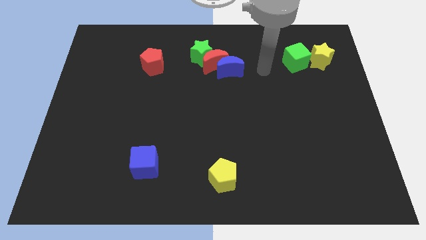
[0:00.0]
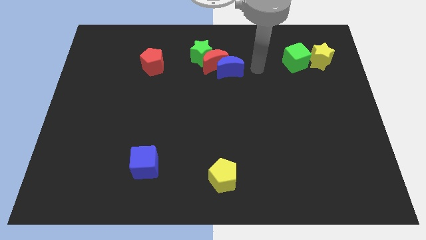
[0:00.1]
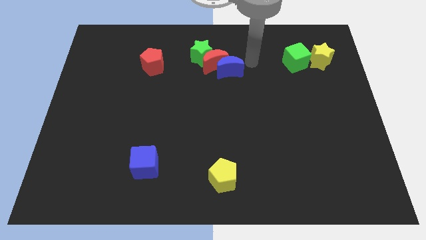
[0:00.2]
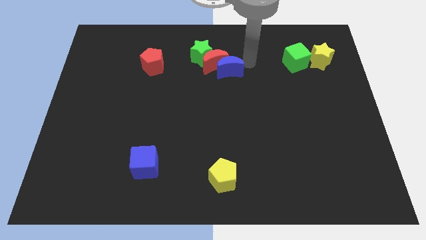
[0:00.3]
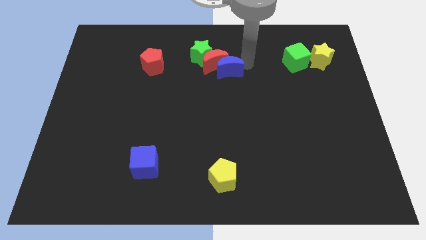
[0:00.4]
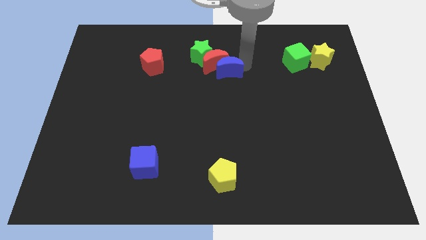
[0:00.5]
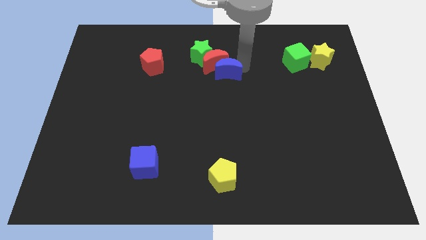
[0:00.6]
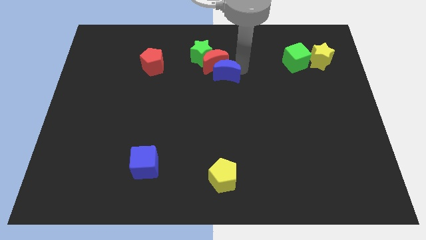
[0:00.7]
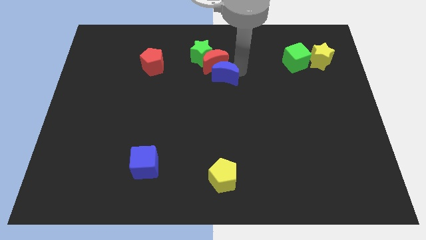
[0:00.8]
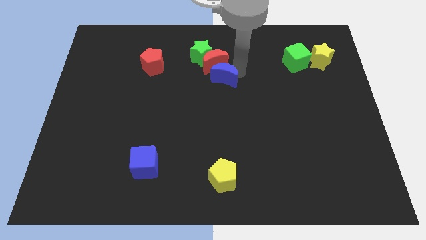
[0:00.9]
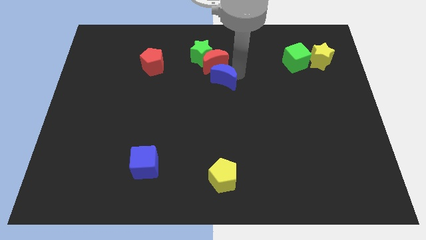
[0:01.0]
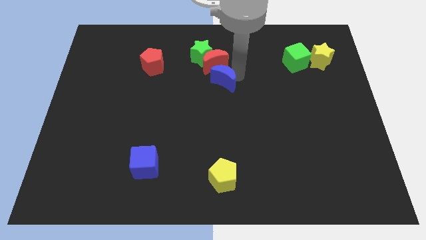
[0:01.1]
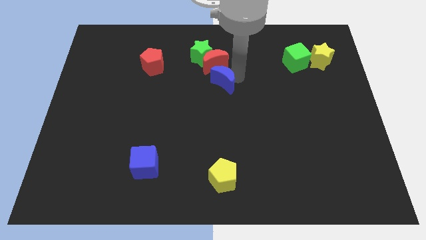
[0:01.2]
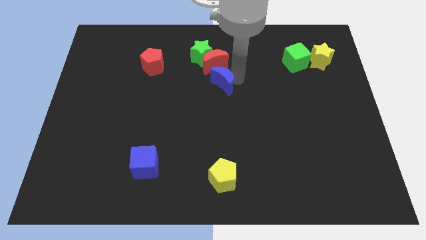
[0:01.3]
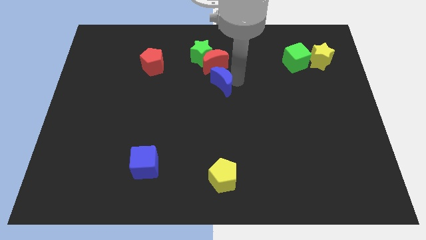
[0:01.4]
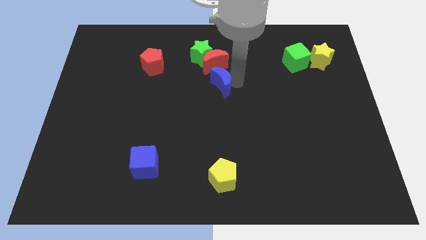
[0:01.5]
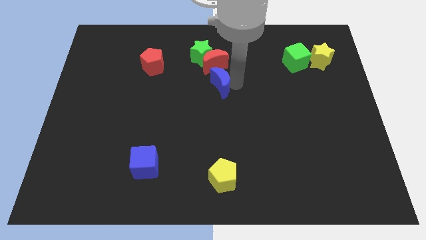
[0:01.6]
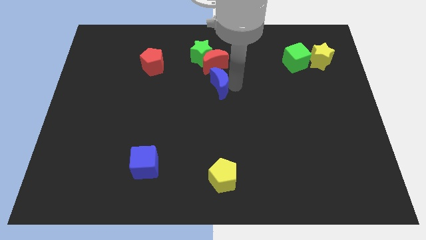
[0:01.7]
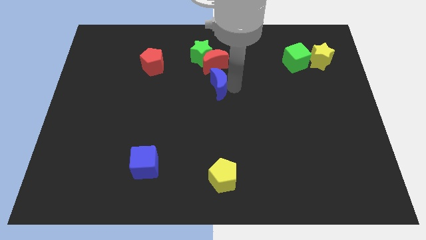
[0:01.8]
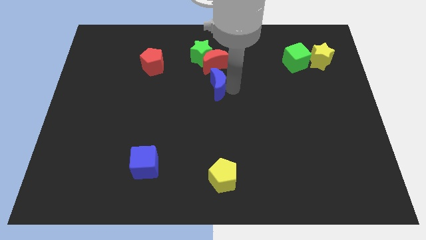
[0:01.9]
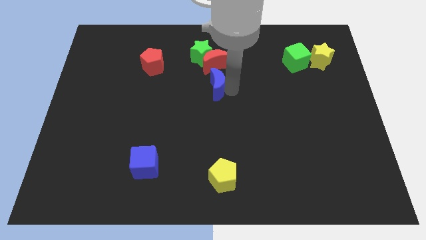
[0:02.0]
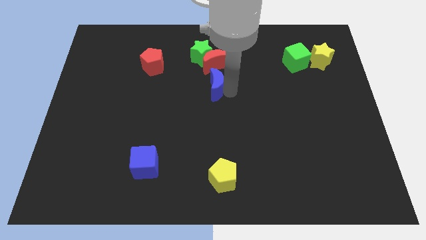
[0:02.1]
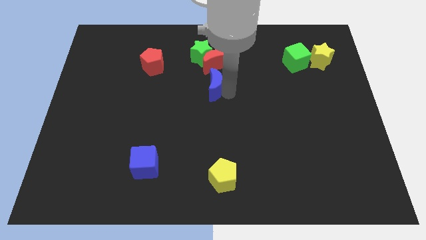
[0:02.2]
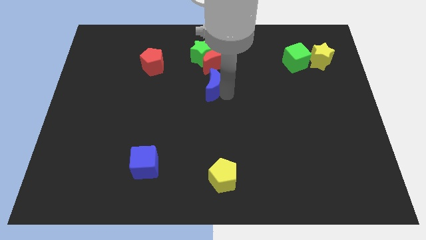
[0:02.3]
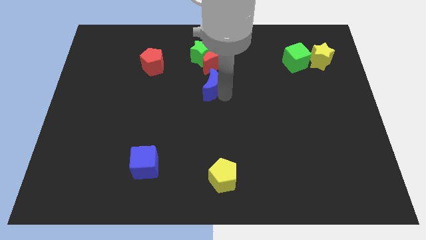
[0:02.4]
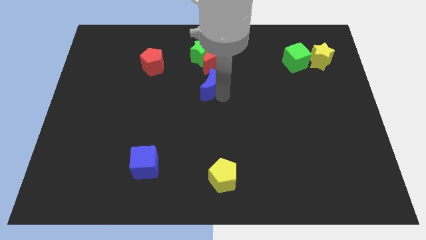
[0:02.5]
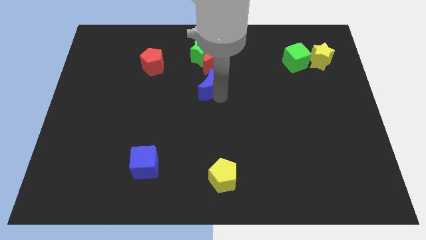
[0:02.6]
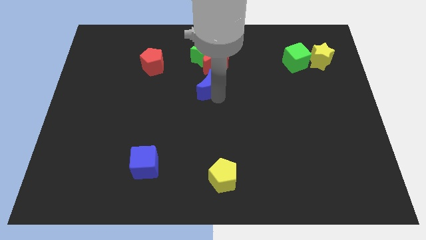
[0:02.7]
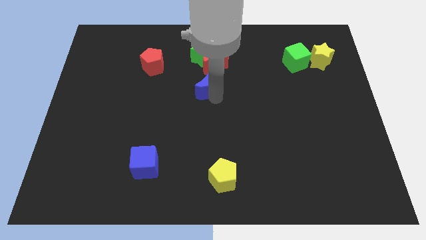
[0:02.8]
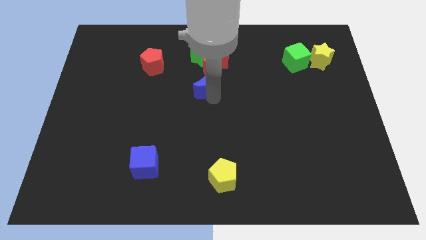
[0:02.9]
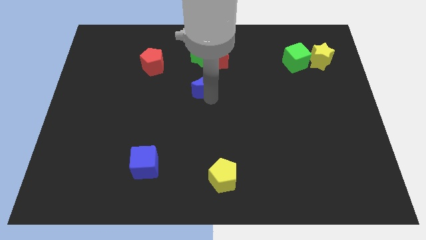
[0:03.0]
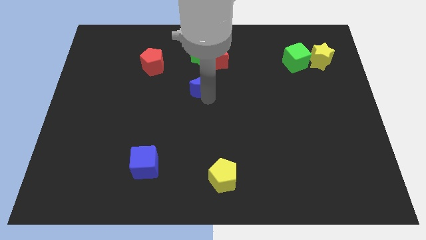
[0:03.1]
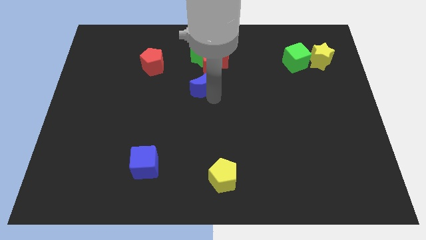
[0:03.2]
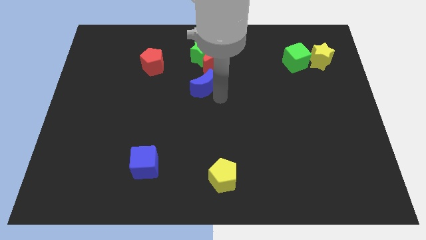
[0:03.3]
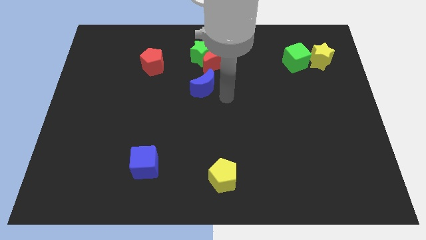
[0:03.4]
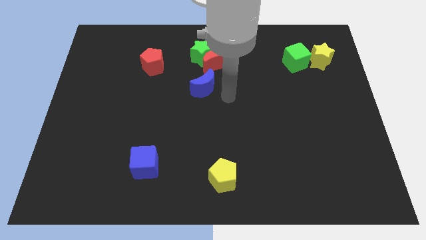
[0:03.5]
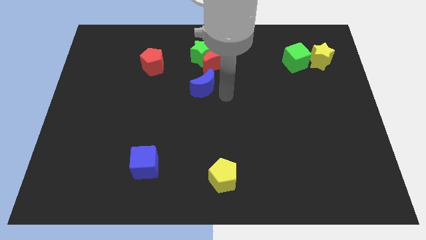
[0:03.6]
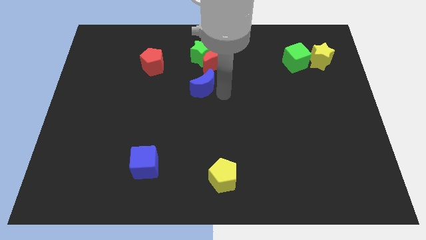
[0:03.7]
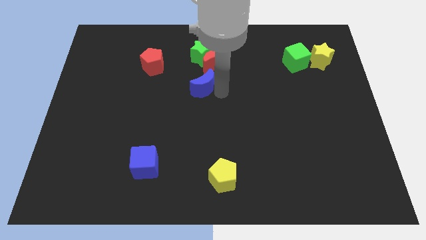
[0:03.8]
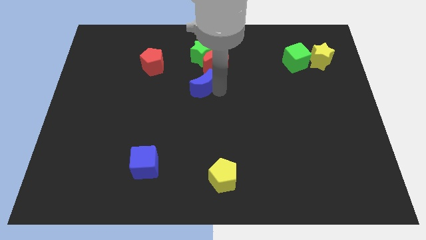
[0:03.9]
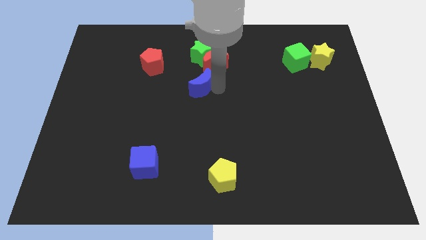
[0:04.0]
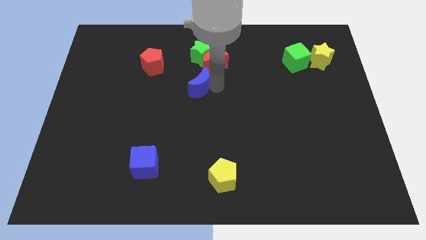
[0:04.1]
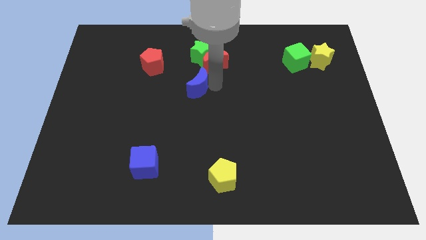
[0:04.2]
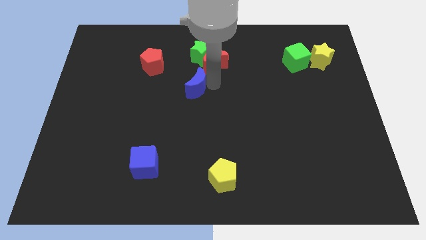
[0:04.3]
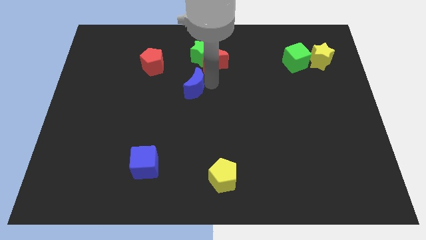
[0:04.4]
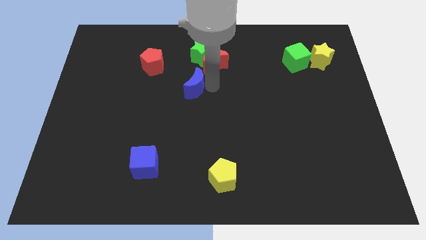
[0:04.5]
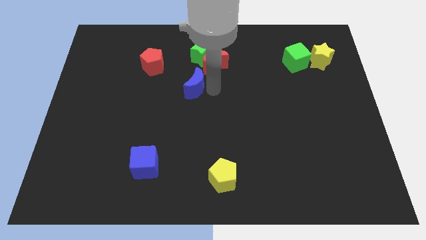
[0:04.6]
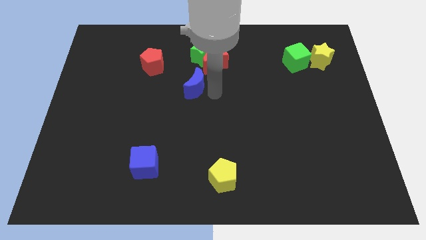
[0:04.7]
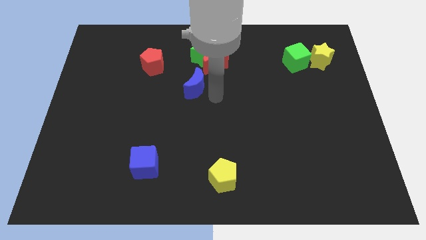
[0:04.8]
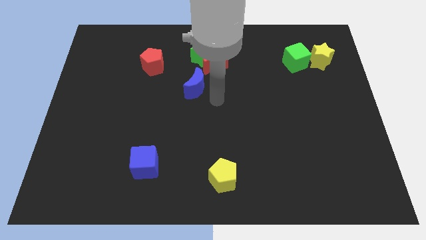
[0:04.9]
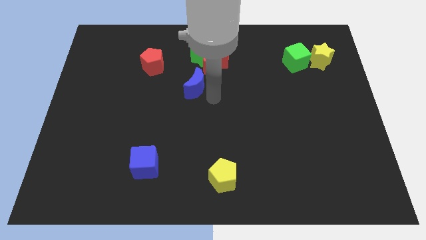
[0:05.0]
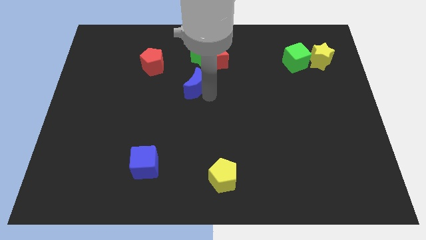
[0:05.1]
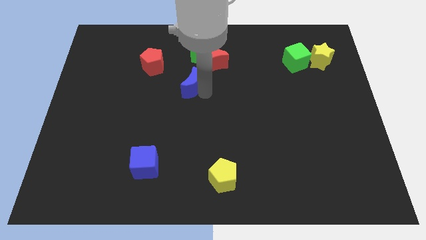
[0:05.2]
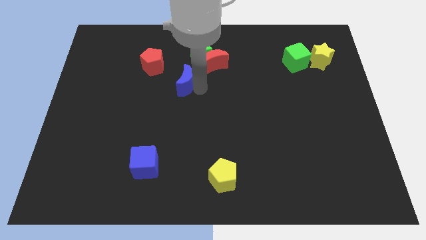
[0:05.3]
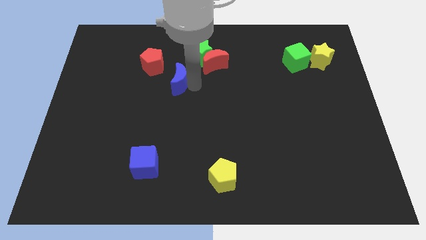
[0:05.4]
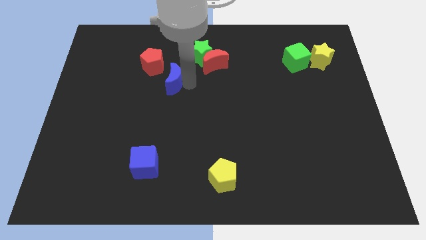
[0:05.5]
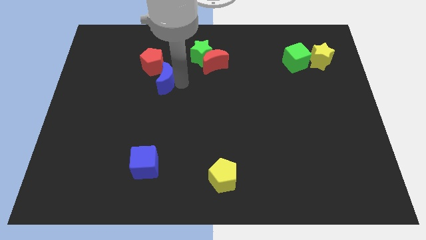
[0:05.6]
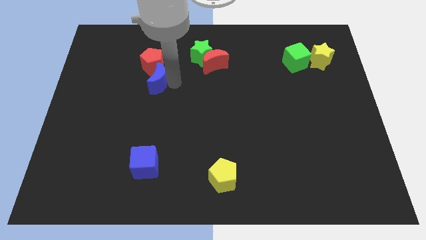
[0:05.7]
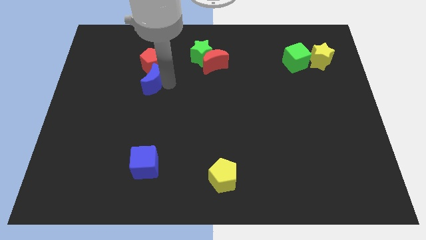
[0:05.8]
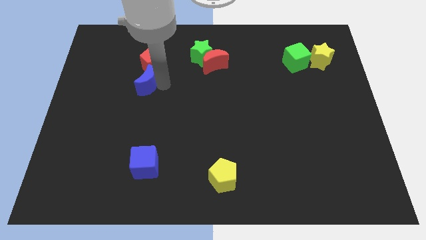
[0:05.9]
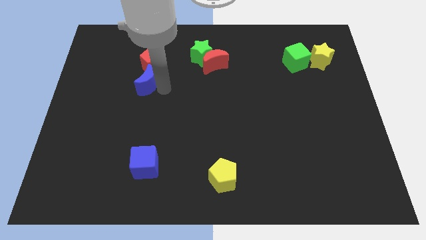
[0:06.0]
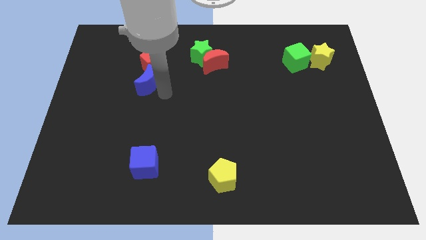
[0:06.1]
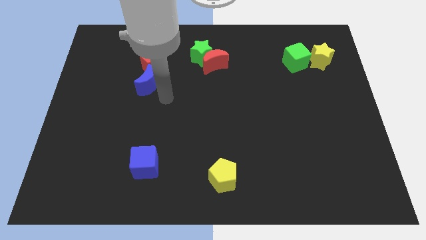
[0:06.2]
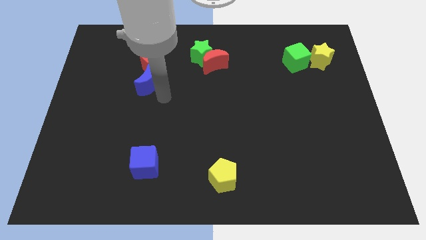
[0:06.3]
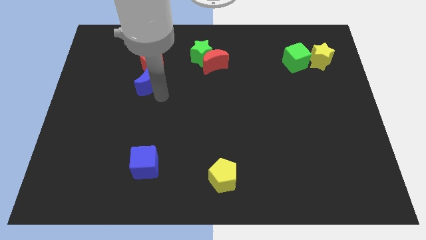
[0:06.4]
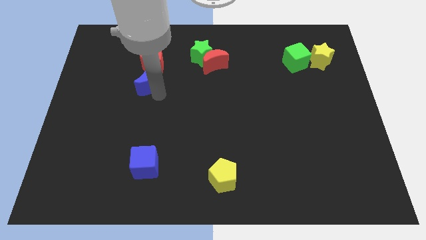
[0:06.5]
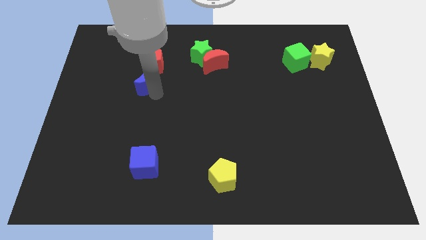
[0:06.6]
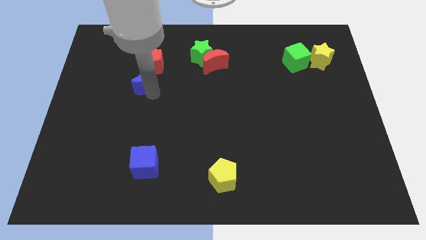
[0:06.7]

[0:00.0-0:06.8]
move the blue moon to the left

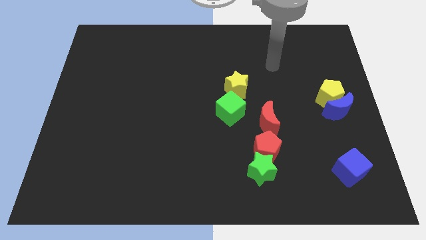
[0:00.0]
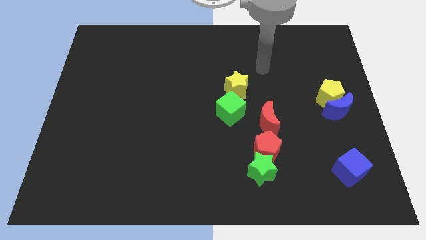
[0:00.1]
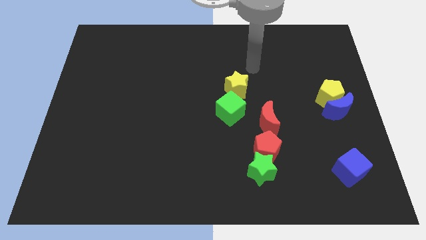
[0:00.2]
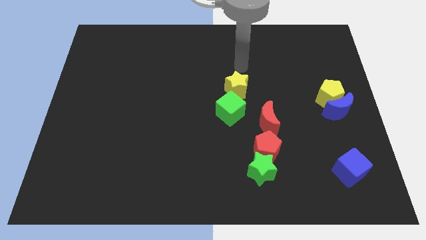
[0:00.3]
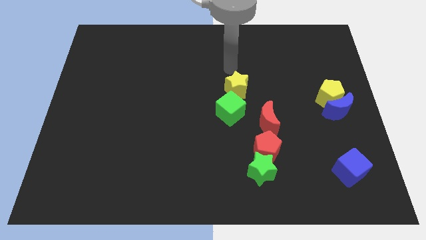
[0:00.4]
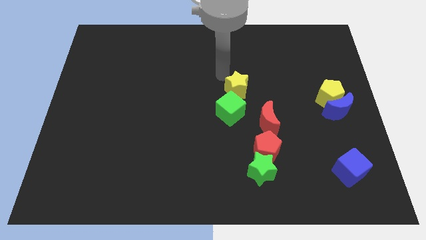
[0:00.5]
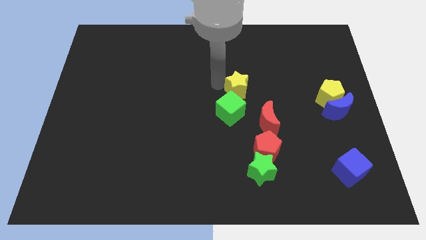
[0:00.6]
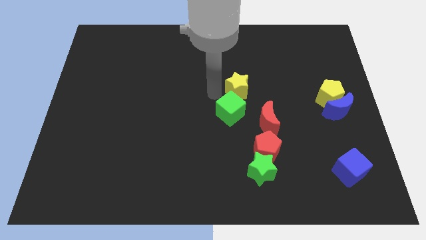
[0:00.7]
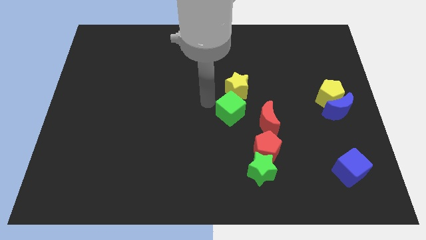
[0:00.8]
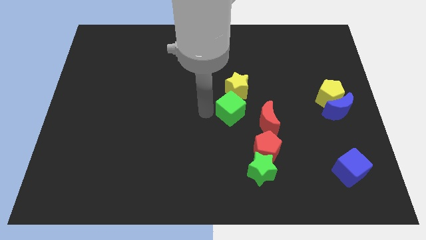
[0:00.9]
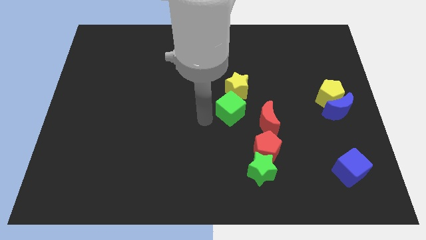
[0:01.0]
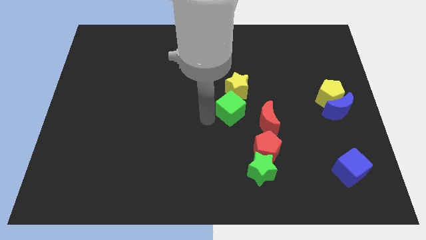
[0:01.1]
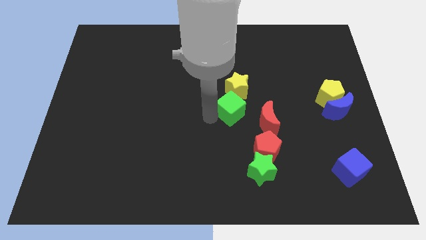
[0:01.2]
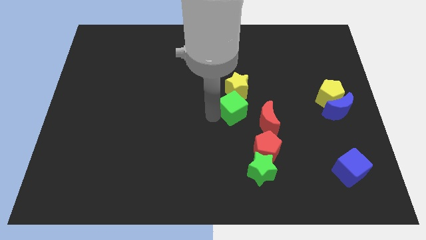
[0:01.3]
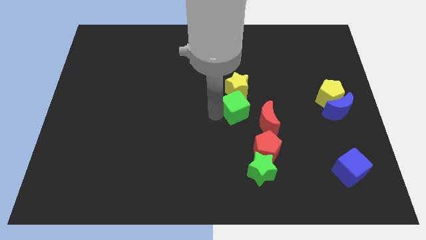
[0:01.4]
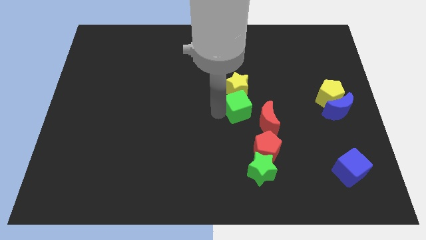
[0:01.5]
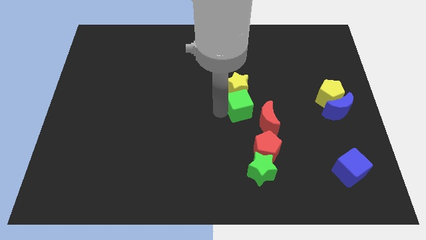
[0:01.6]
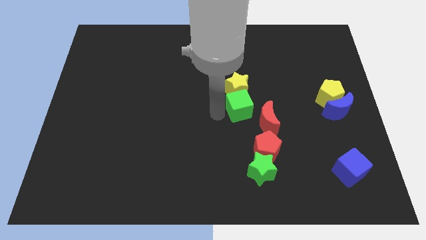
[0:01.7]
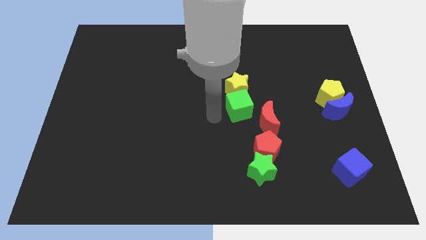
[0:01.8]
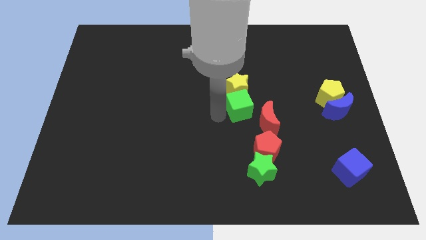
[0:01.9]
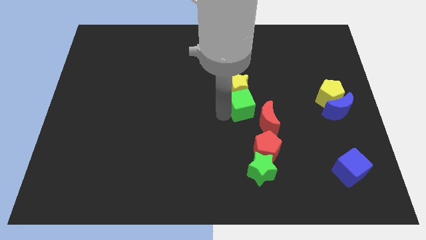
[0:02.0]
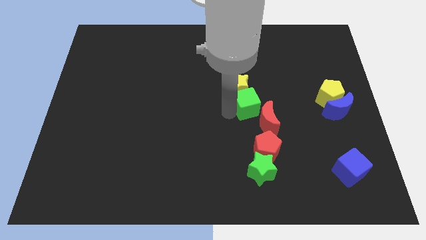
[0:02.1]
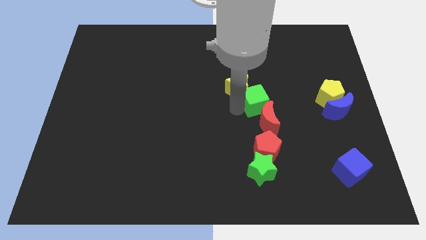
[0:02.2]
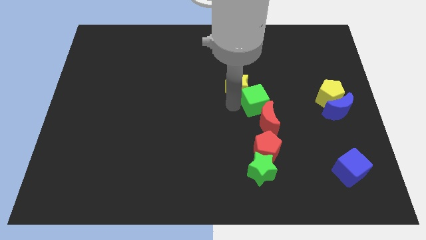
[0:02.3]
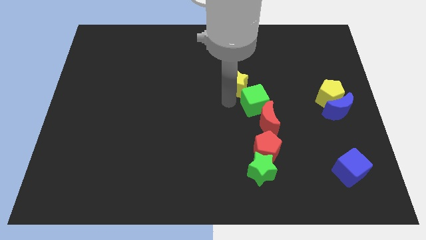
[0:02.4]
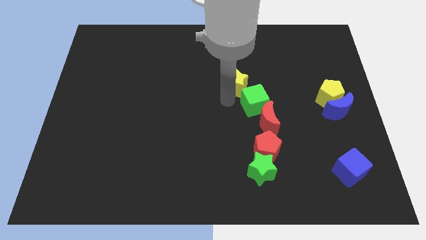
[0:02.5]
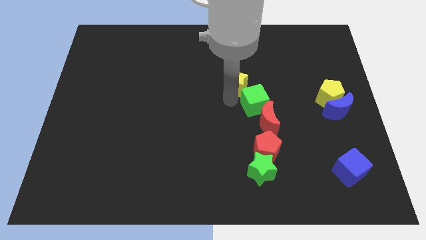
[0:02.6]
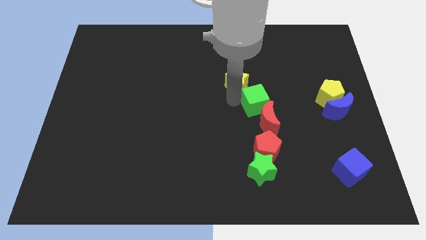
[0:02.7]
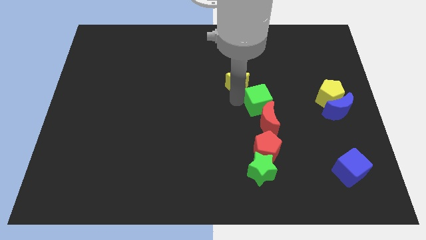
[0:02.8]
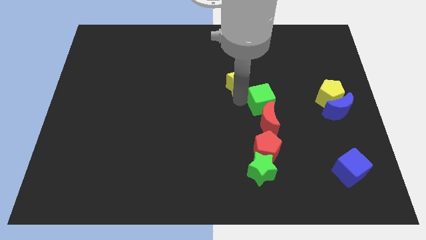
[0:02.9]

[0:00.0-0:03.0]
push the green cube slightly to the right
